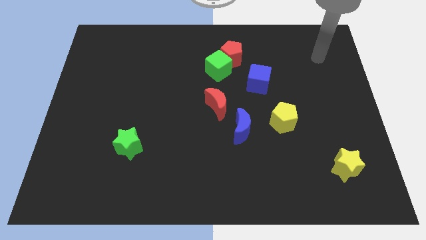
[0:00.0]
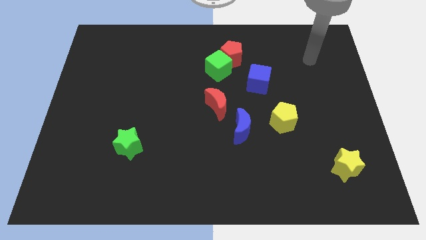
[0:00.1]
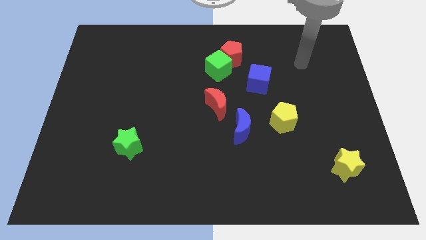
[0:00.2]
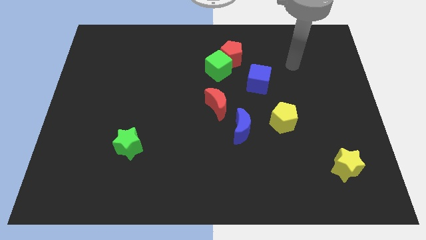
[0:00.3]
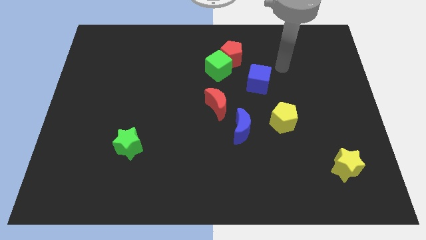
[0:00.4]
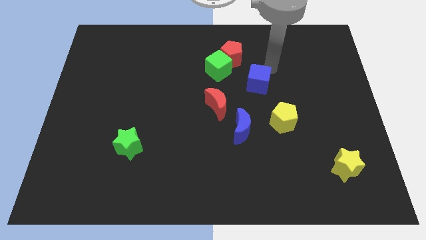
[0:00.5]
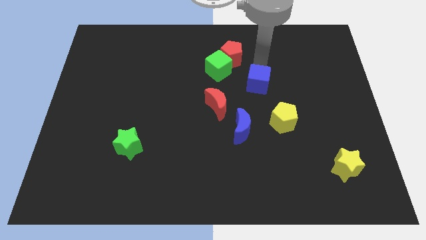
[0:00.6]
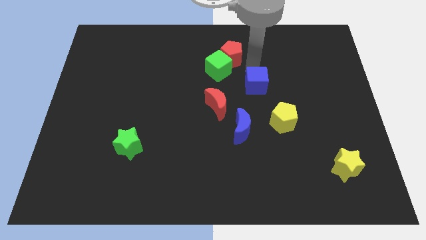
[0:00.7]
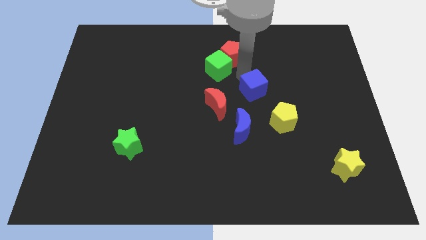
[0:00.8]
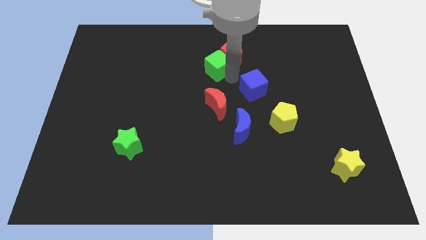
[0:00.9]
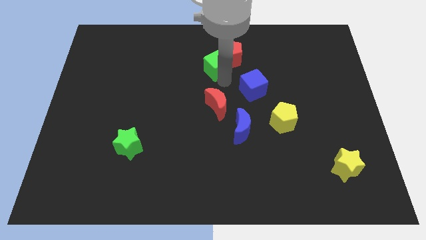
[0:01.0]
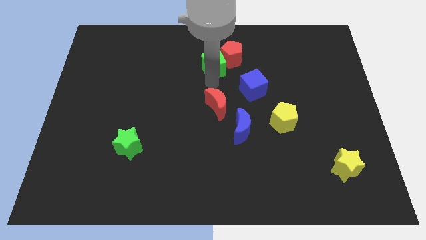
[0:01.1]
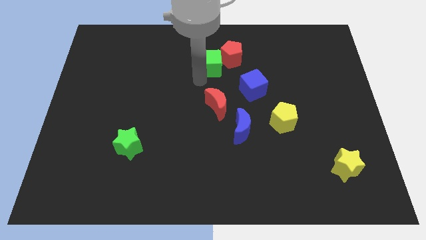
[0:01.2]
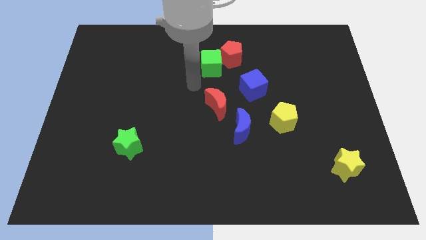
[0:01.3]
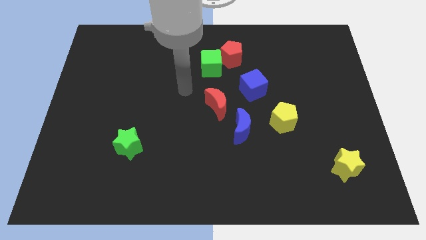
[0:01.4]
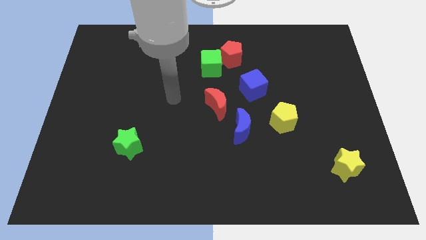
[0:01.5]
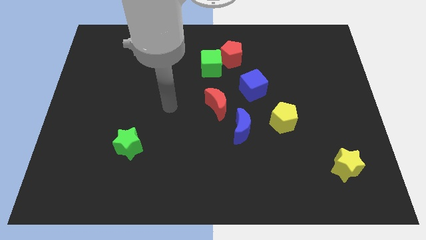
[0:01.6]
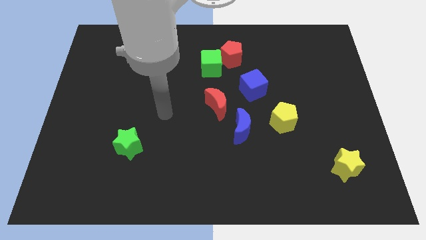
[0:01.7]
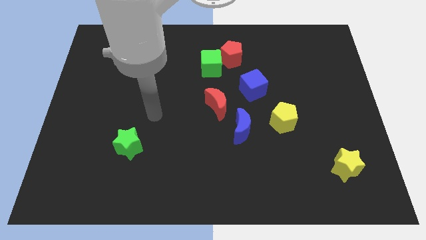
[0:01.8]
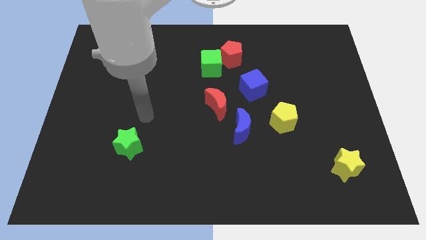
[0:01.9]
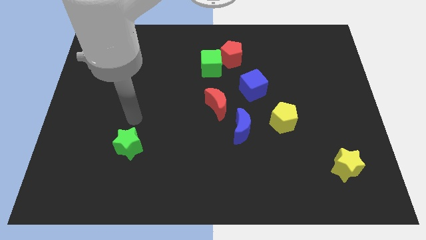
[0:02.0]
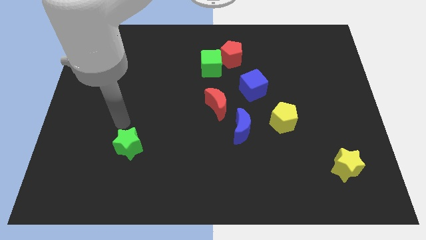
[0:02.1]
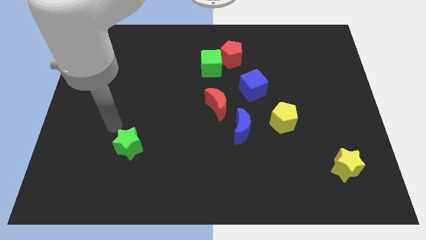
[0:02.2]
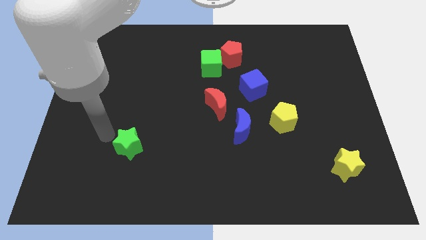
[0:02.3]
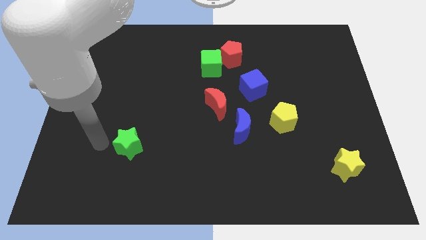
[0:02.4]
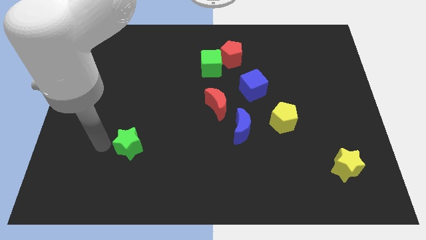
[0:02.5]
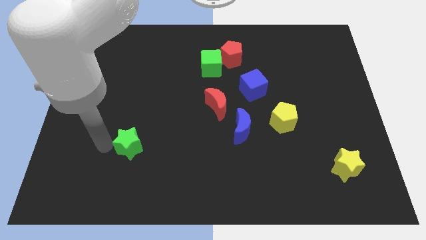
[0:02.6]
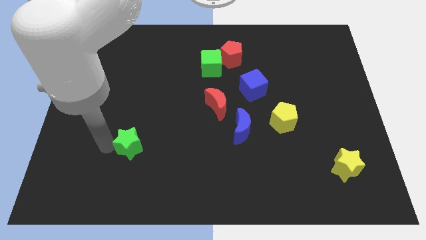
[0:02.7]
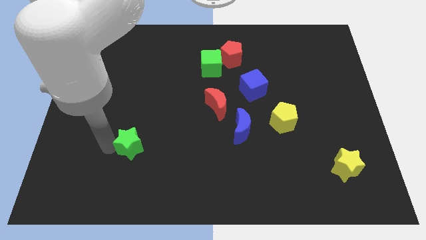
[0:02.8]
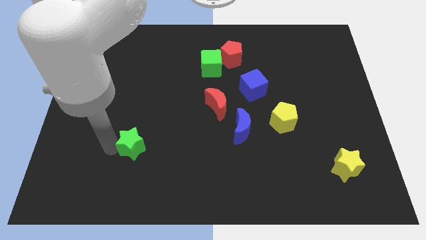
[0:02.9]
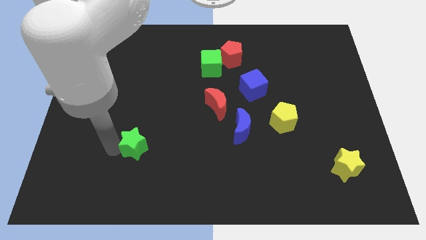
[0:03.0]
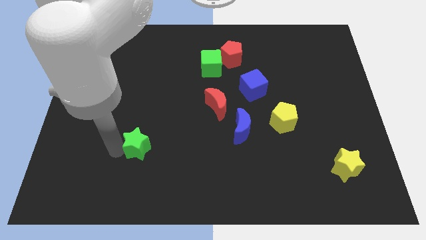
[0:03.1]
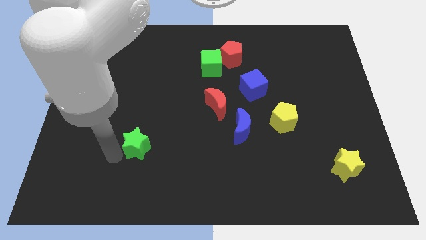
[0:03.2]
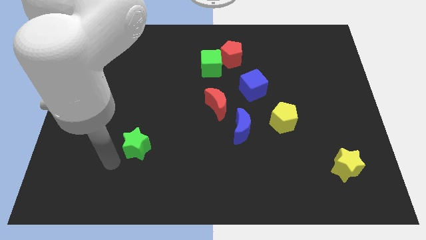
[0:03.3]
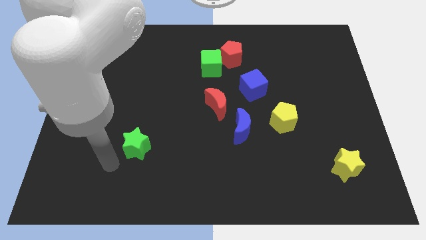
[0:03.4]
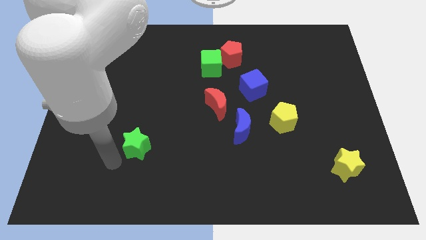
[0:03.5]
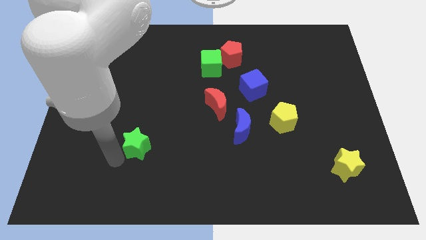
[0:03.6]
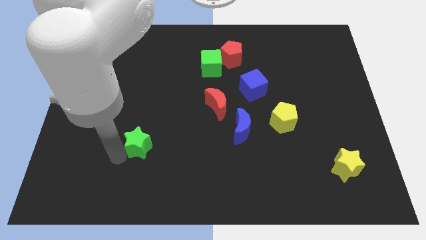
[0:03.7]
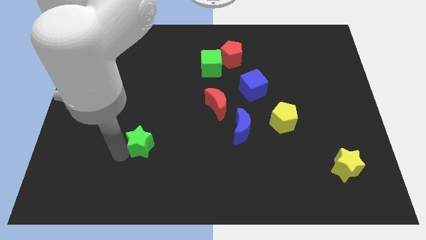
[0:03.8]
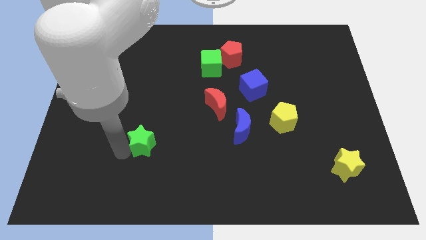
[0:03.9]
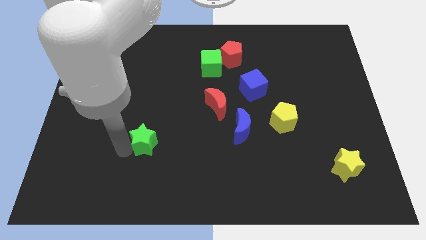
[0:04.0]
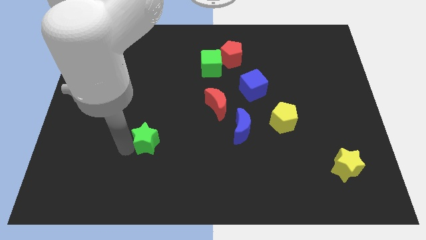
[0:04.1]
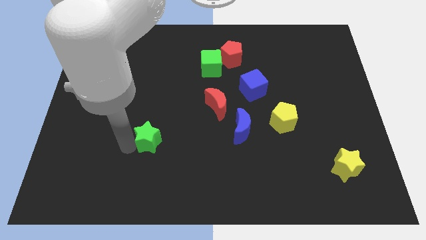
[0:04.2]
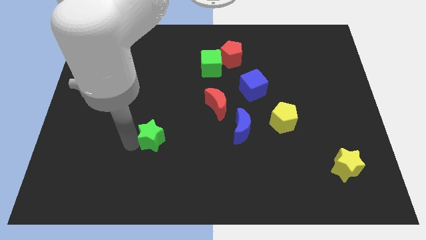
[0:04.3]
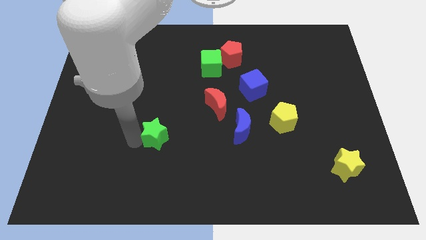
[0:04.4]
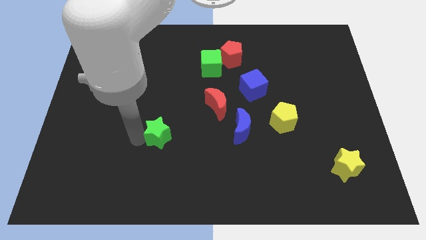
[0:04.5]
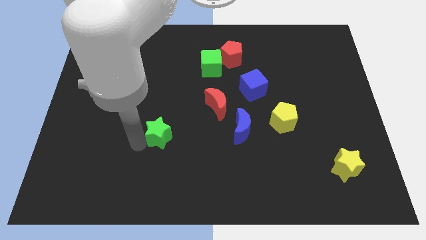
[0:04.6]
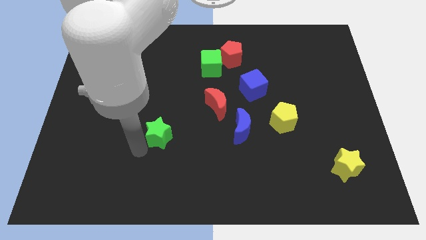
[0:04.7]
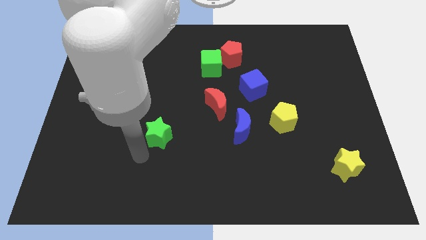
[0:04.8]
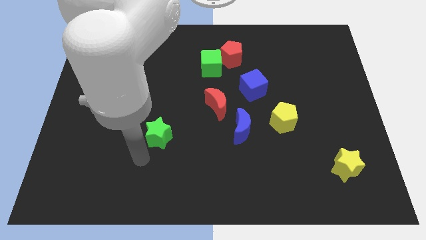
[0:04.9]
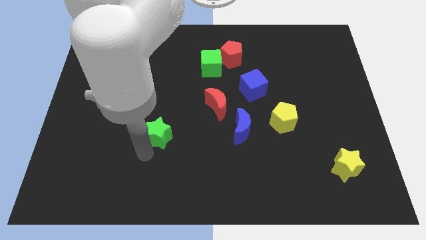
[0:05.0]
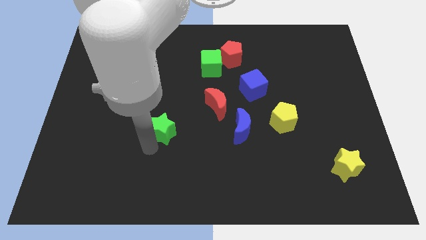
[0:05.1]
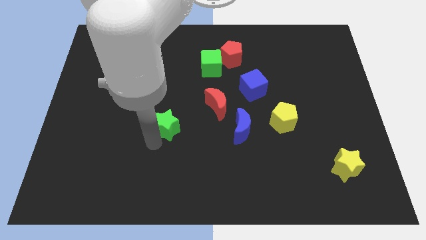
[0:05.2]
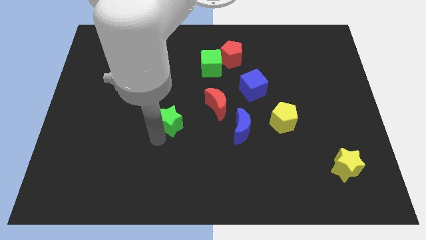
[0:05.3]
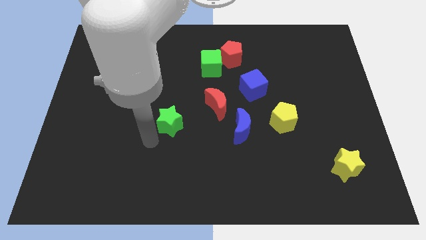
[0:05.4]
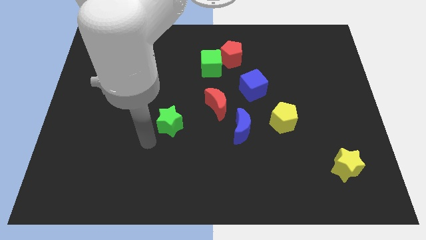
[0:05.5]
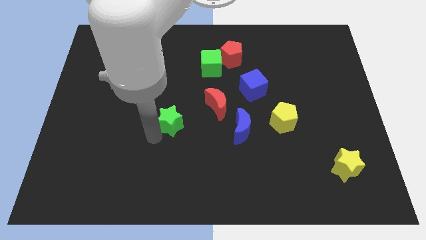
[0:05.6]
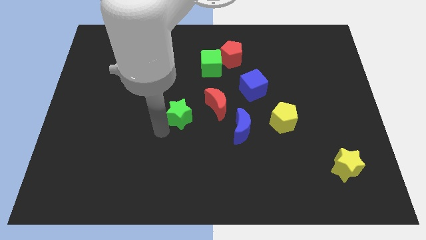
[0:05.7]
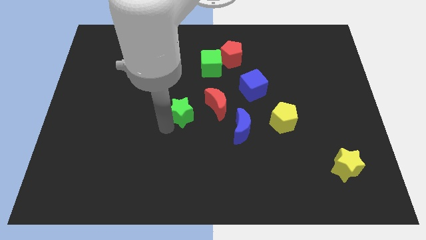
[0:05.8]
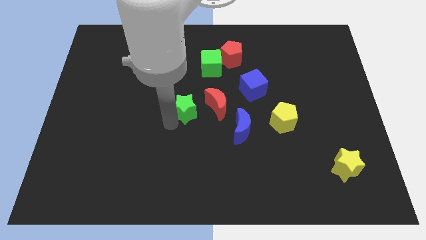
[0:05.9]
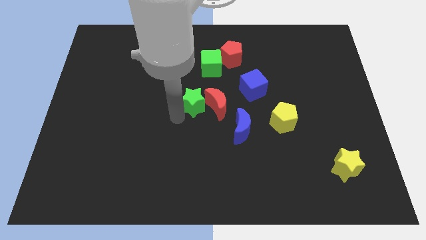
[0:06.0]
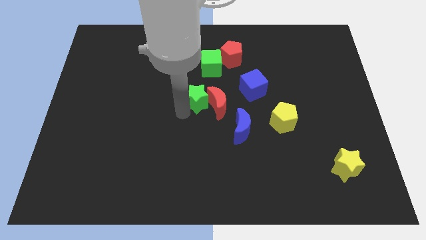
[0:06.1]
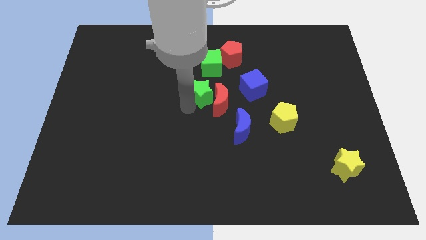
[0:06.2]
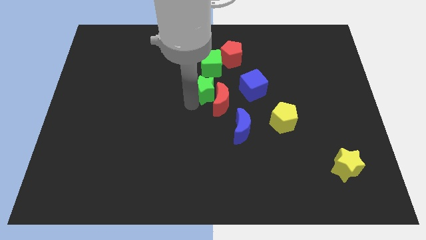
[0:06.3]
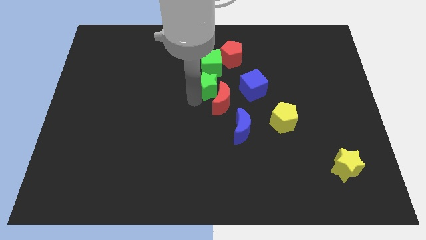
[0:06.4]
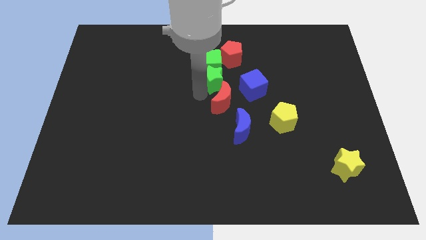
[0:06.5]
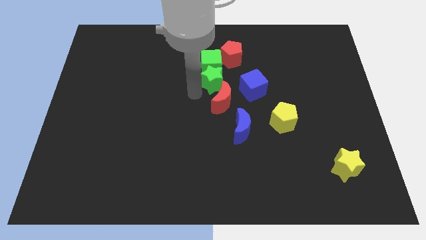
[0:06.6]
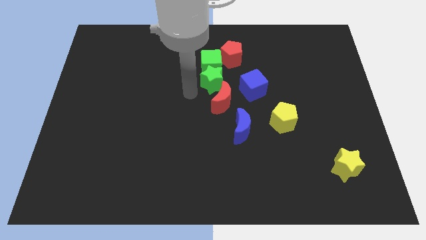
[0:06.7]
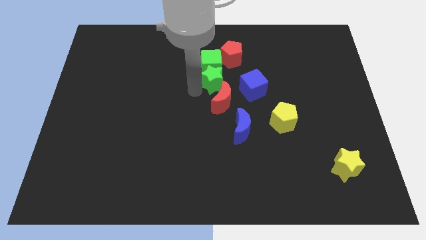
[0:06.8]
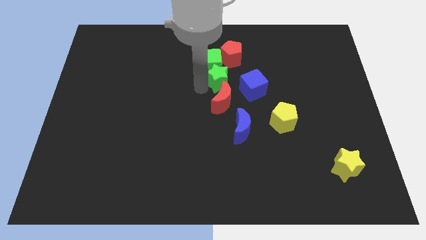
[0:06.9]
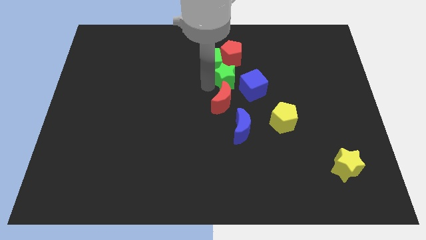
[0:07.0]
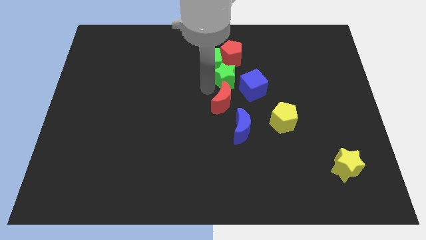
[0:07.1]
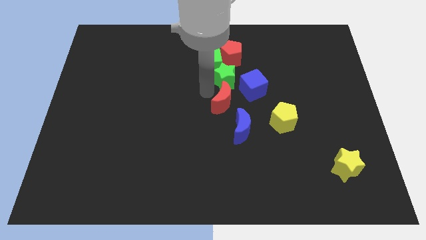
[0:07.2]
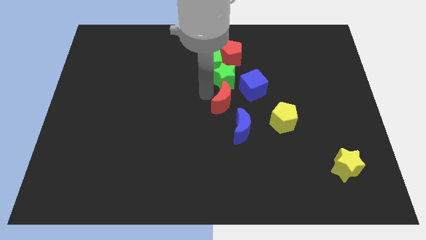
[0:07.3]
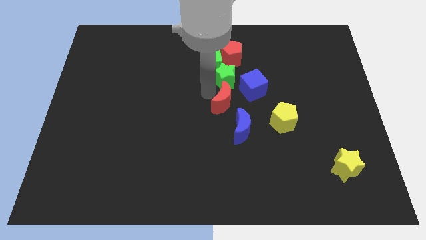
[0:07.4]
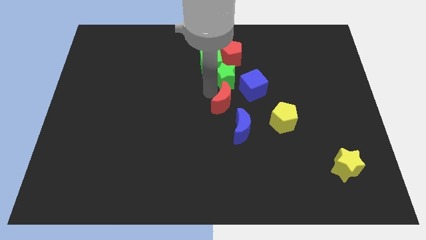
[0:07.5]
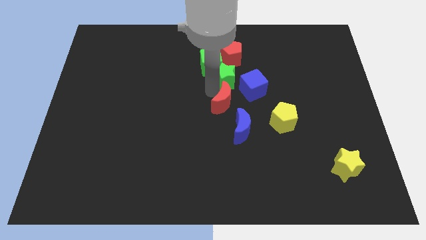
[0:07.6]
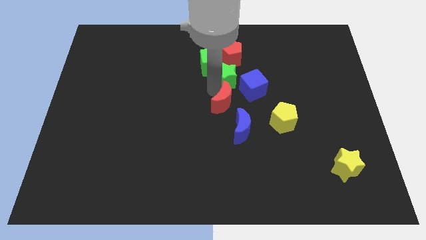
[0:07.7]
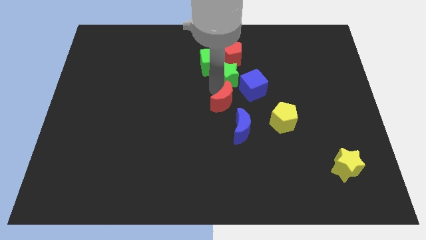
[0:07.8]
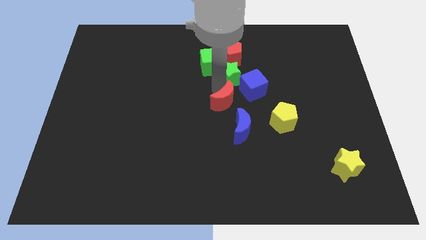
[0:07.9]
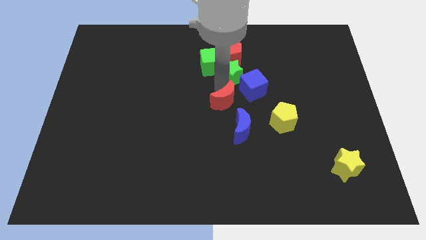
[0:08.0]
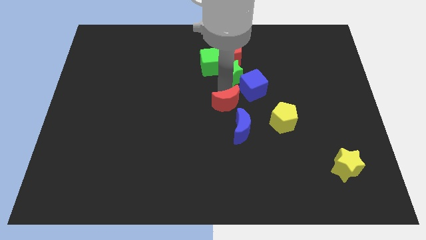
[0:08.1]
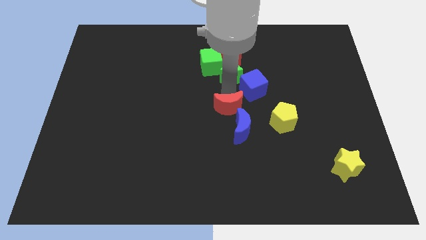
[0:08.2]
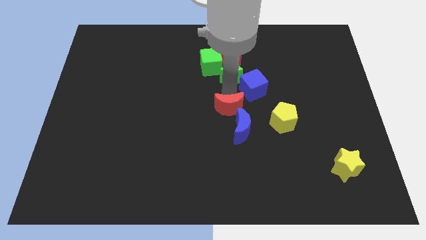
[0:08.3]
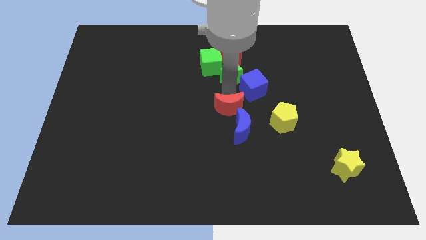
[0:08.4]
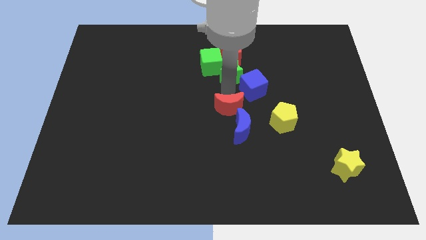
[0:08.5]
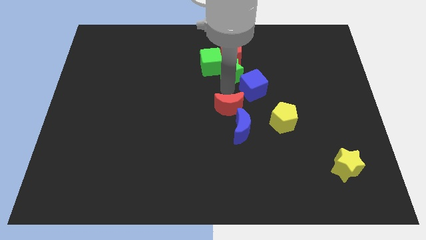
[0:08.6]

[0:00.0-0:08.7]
push the green star close to the red pentagon
